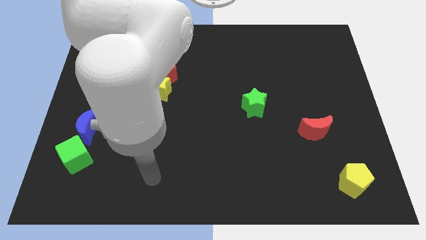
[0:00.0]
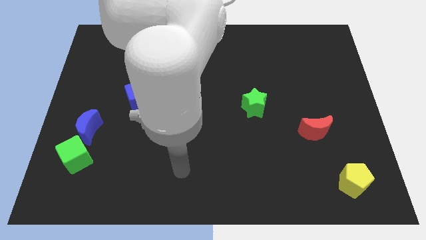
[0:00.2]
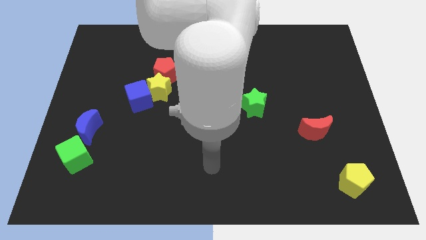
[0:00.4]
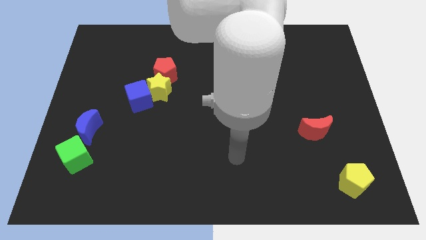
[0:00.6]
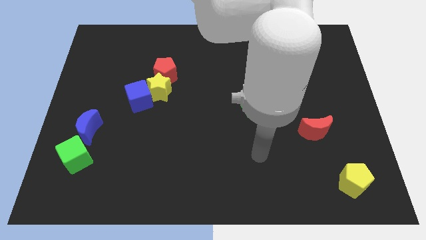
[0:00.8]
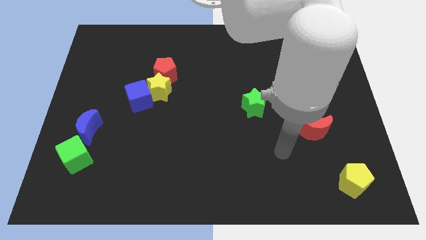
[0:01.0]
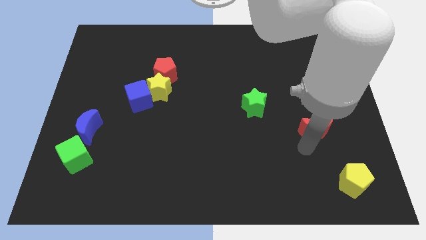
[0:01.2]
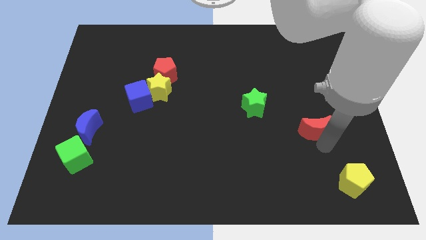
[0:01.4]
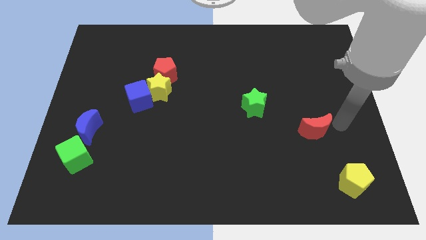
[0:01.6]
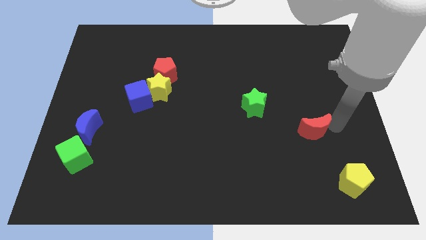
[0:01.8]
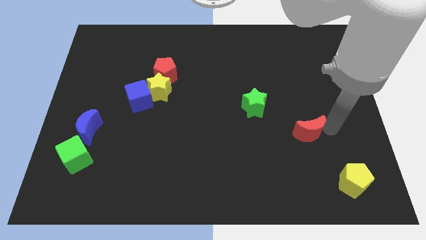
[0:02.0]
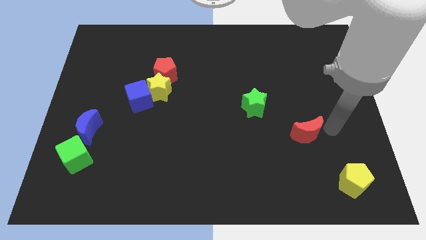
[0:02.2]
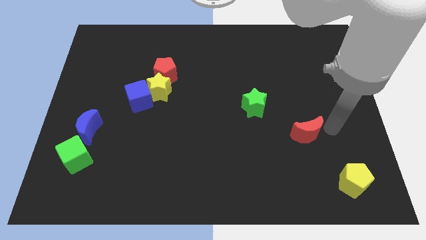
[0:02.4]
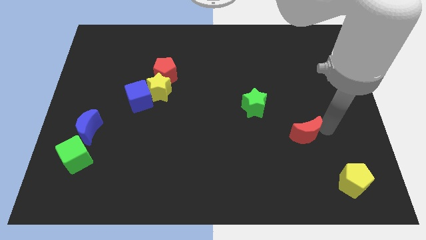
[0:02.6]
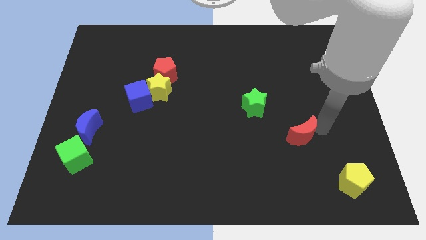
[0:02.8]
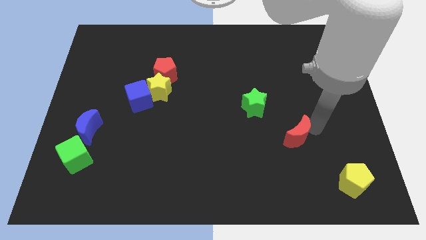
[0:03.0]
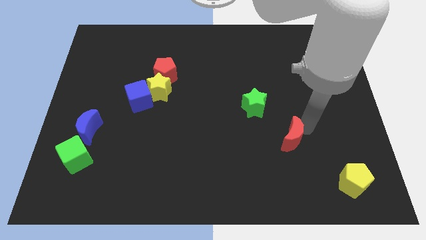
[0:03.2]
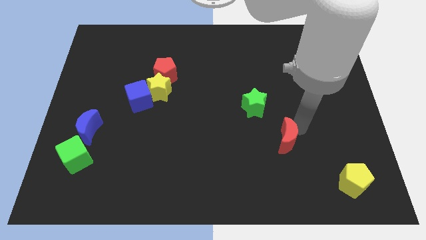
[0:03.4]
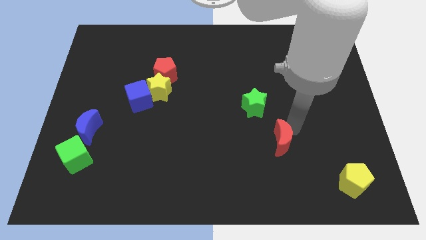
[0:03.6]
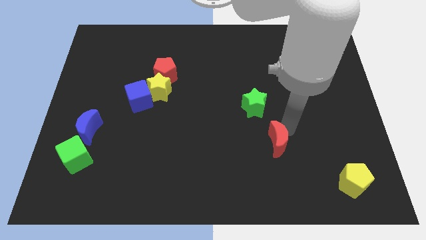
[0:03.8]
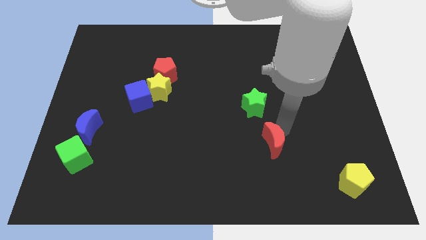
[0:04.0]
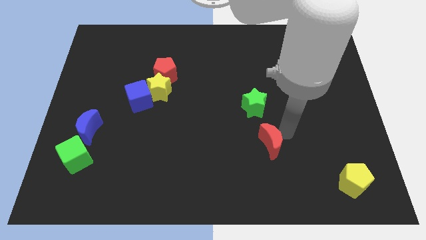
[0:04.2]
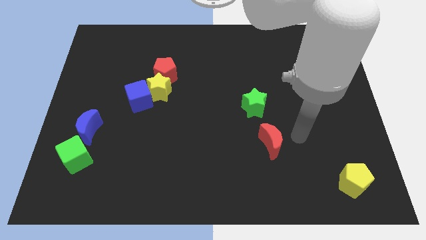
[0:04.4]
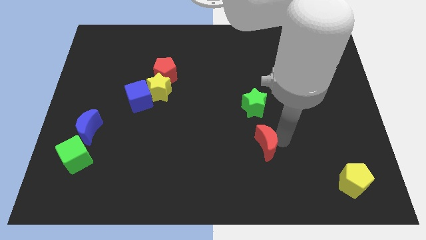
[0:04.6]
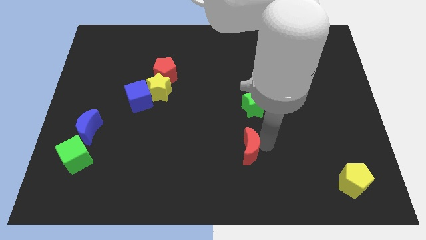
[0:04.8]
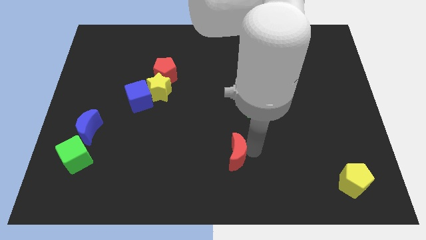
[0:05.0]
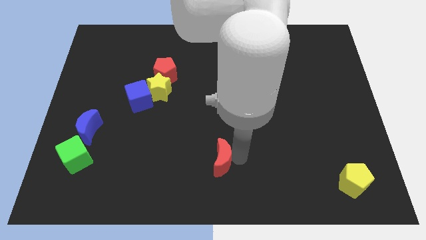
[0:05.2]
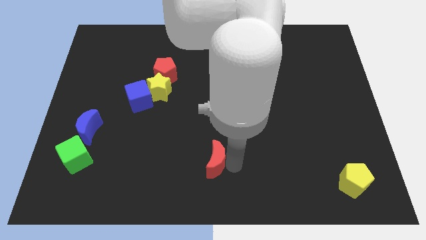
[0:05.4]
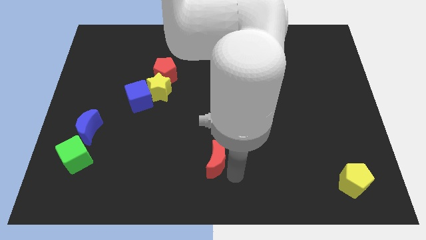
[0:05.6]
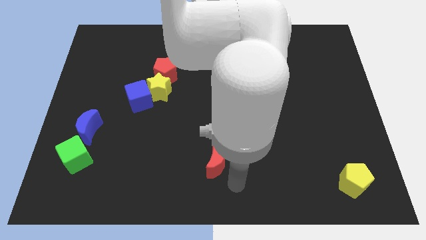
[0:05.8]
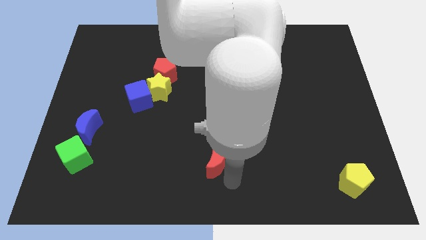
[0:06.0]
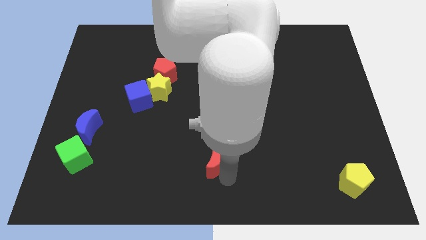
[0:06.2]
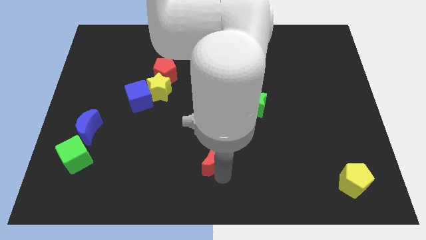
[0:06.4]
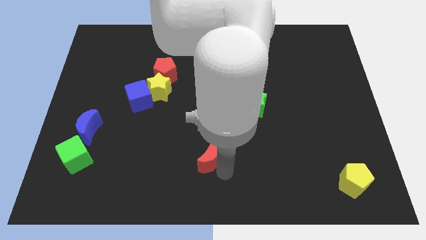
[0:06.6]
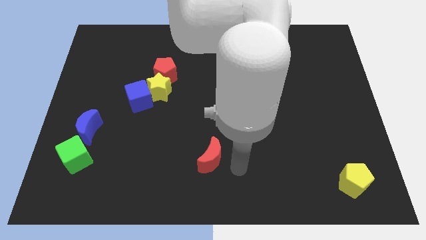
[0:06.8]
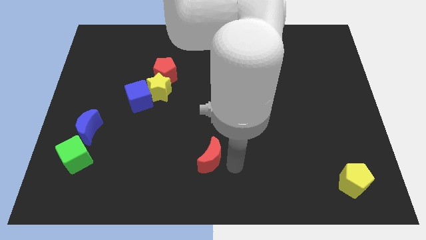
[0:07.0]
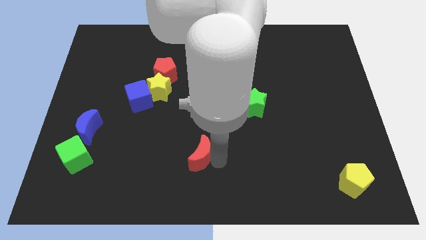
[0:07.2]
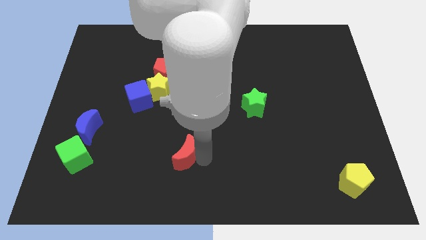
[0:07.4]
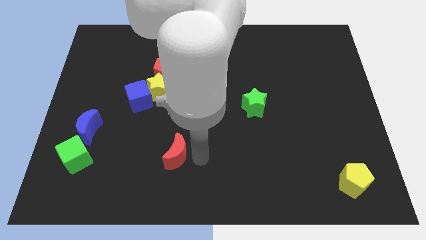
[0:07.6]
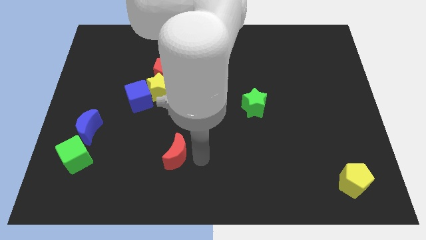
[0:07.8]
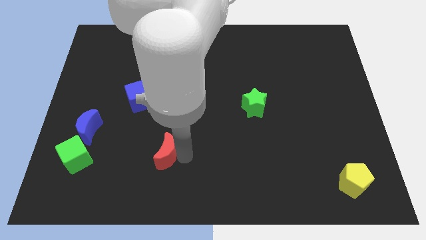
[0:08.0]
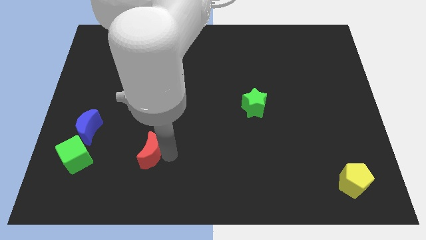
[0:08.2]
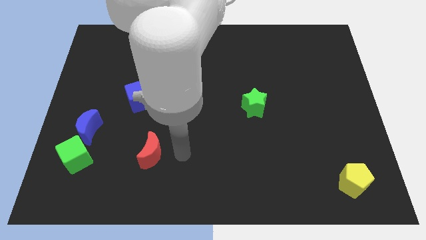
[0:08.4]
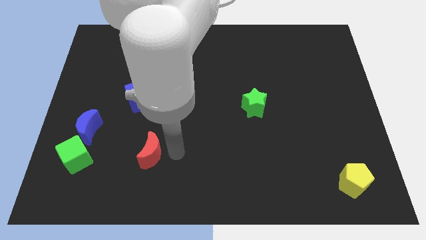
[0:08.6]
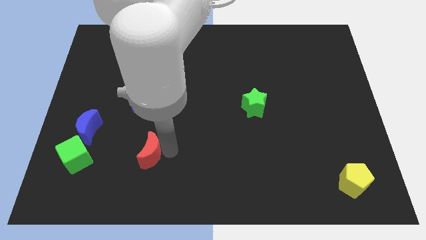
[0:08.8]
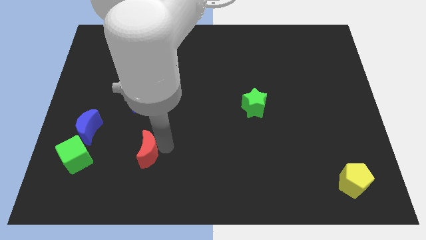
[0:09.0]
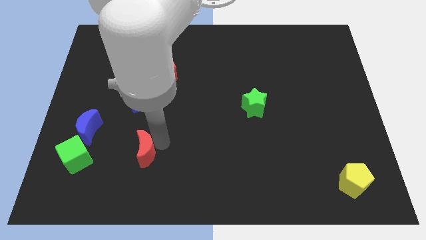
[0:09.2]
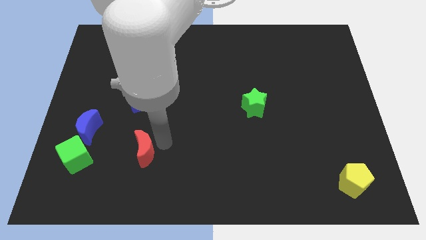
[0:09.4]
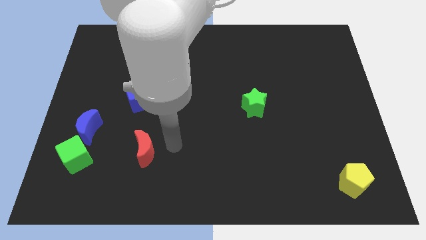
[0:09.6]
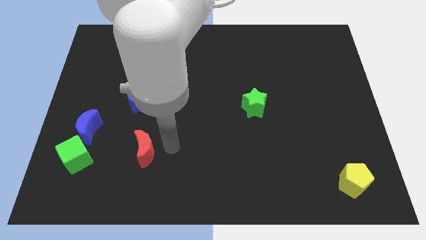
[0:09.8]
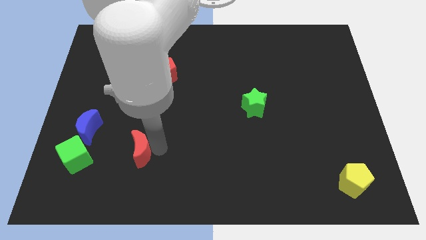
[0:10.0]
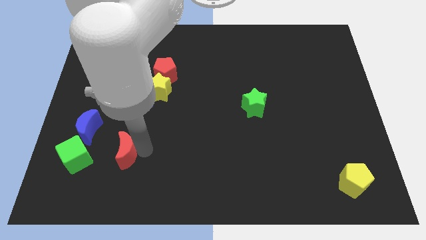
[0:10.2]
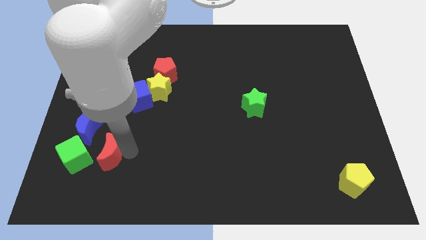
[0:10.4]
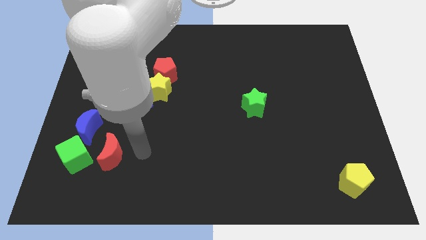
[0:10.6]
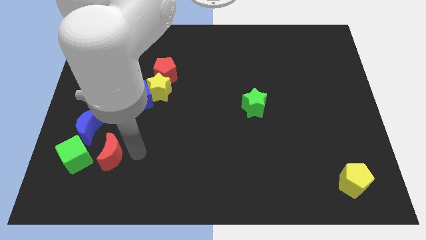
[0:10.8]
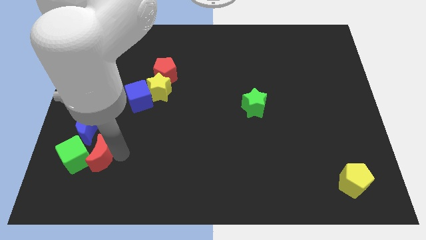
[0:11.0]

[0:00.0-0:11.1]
put the red moon to the green cube
